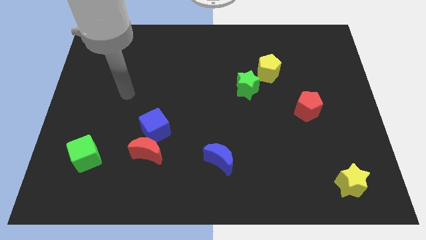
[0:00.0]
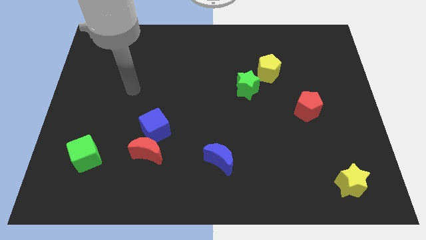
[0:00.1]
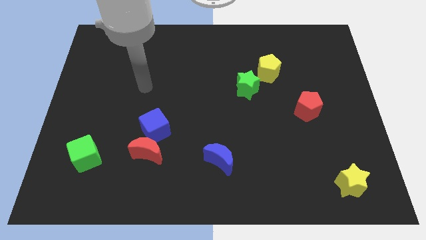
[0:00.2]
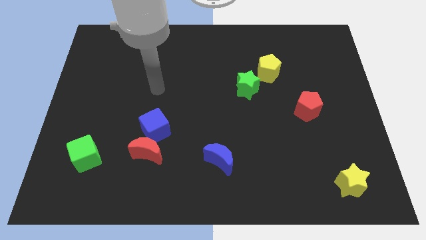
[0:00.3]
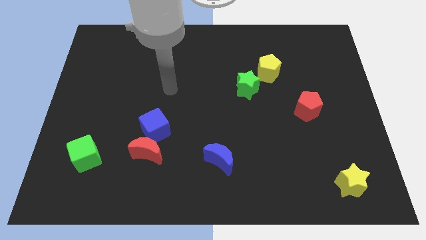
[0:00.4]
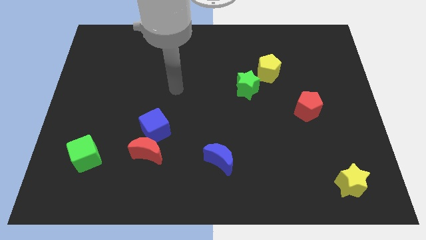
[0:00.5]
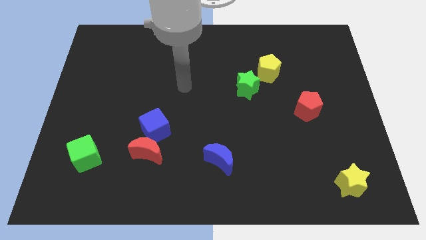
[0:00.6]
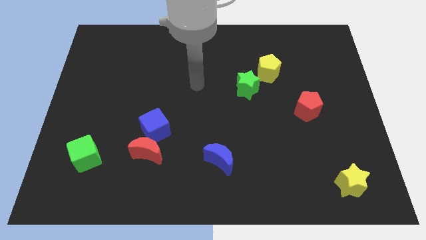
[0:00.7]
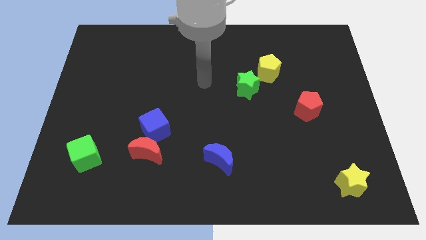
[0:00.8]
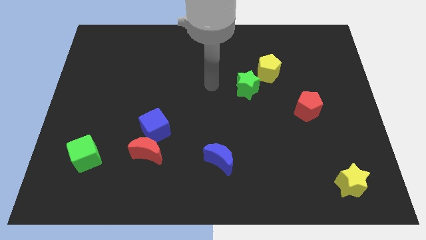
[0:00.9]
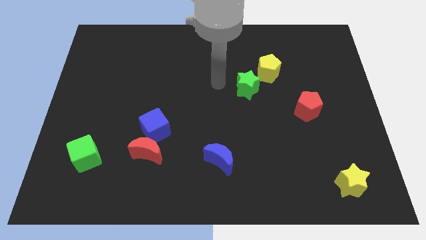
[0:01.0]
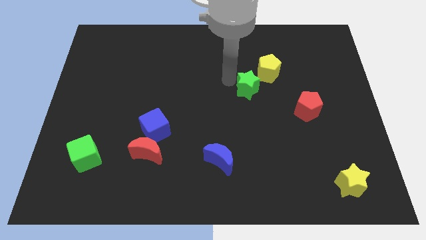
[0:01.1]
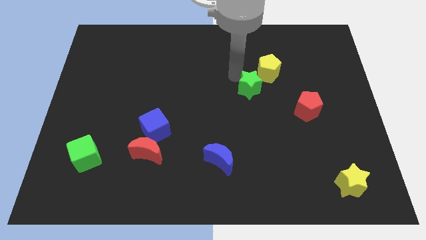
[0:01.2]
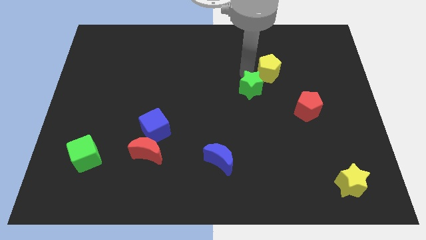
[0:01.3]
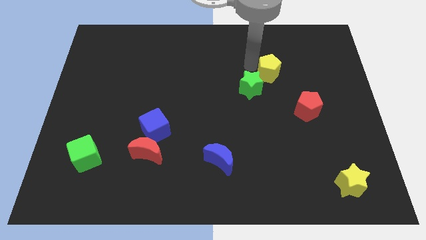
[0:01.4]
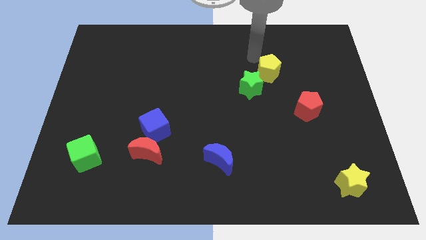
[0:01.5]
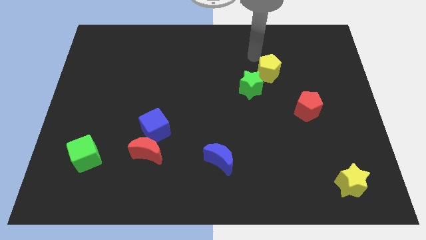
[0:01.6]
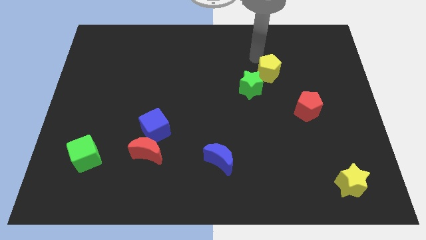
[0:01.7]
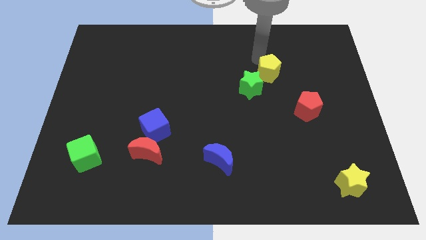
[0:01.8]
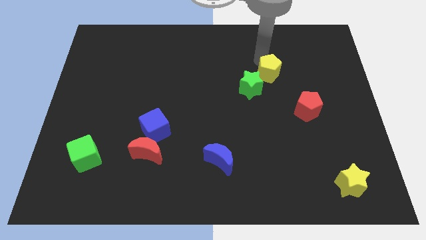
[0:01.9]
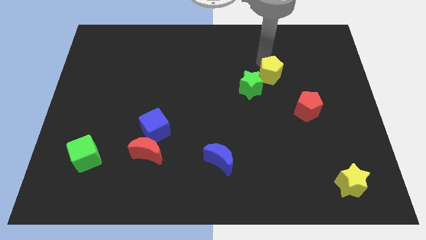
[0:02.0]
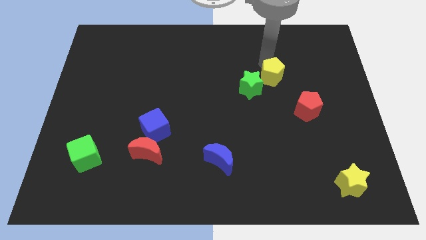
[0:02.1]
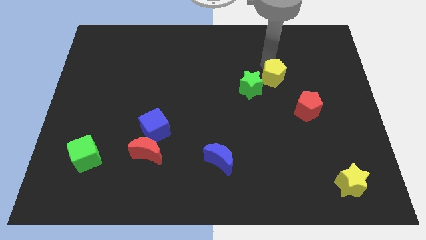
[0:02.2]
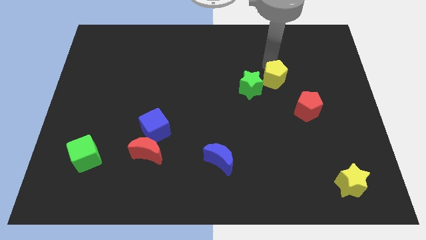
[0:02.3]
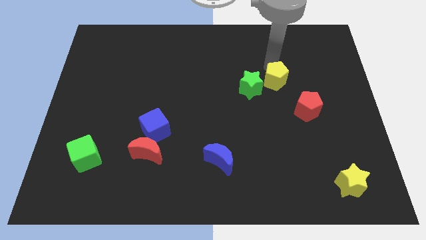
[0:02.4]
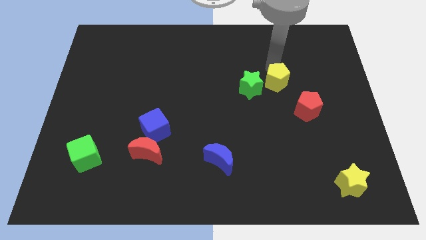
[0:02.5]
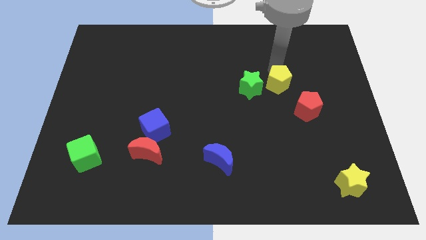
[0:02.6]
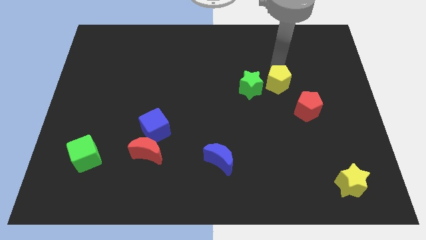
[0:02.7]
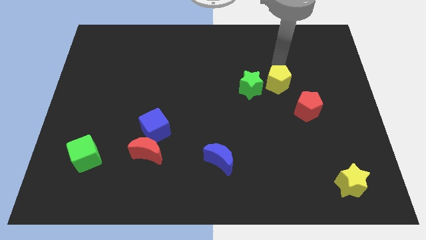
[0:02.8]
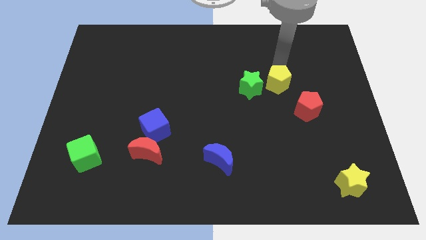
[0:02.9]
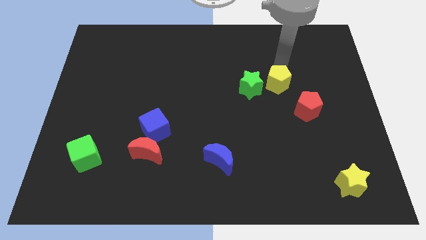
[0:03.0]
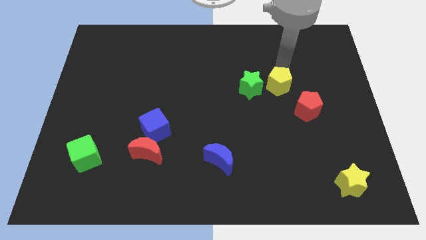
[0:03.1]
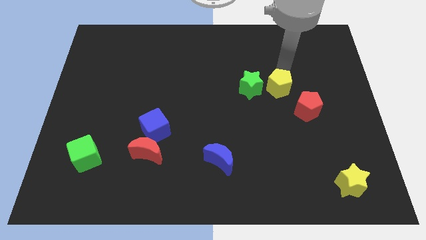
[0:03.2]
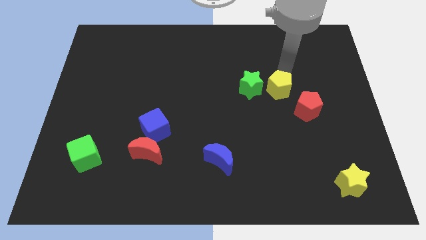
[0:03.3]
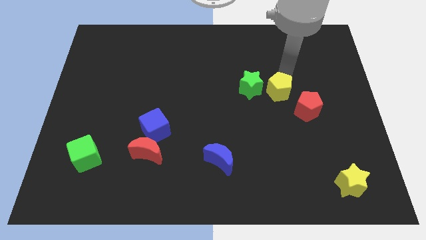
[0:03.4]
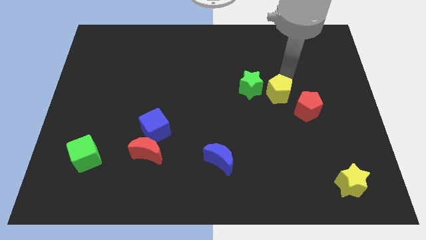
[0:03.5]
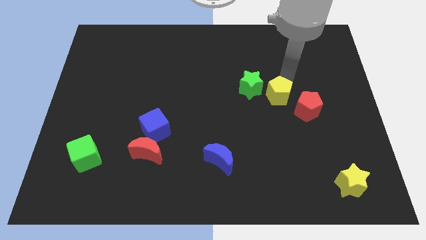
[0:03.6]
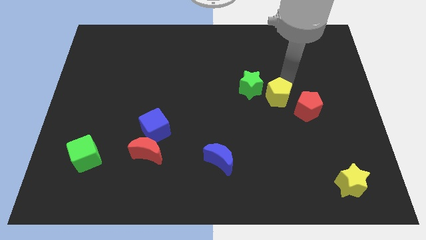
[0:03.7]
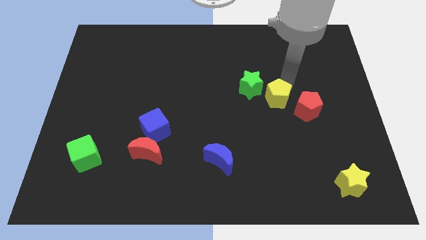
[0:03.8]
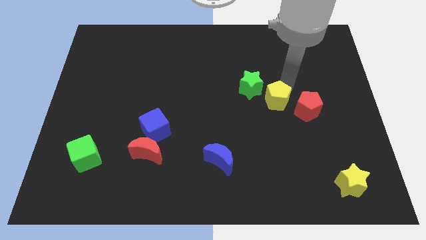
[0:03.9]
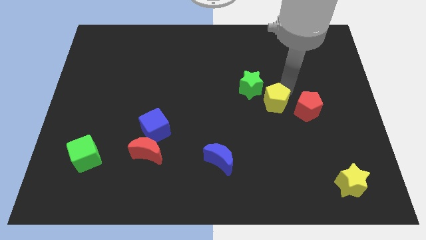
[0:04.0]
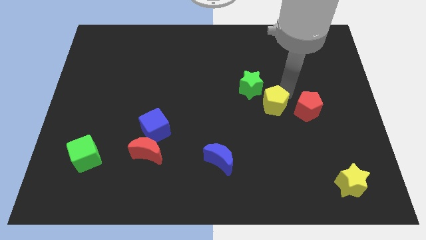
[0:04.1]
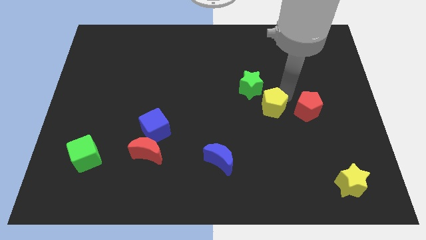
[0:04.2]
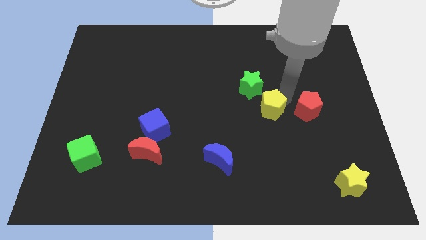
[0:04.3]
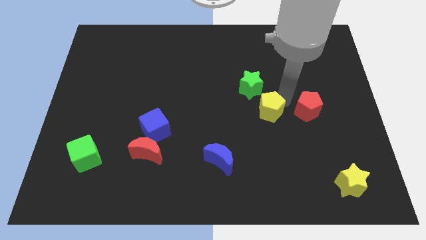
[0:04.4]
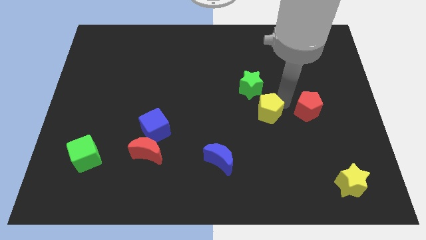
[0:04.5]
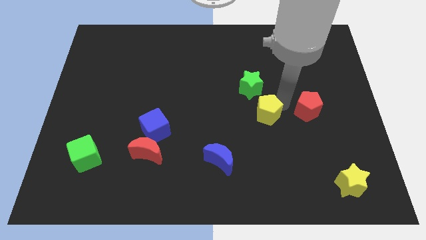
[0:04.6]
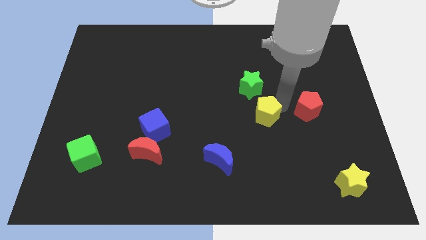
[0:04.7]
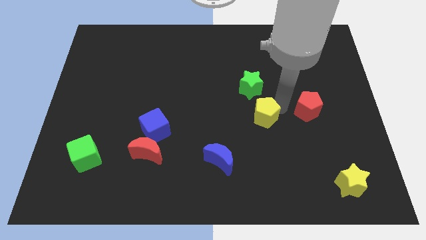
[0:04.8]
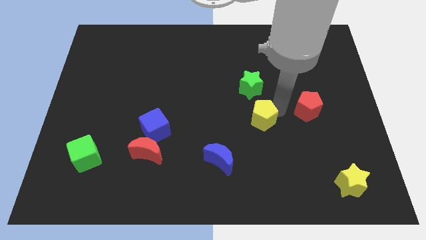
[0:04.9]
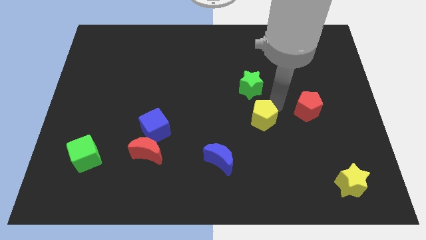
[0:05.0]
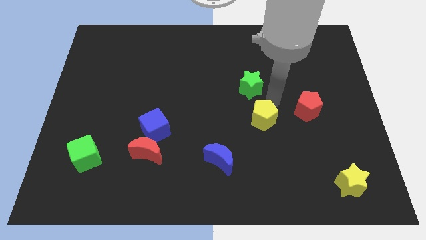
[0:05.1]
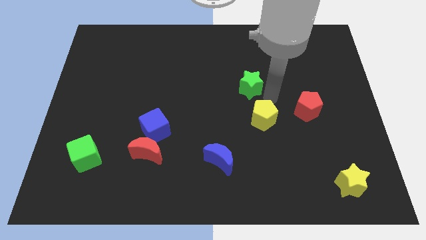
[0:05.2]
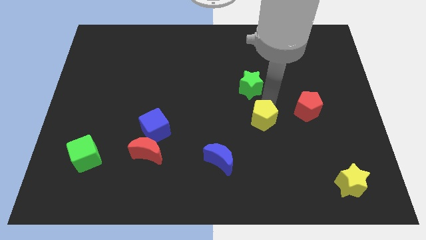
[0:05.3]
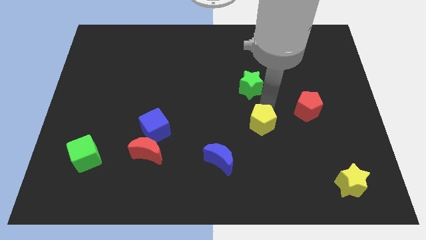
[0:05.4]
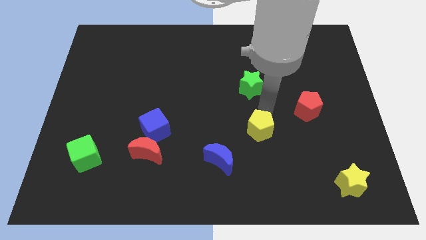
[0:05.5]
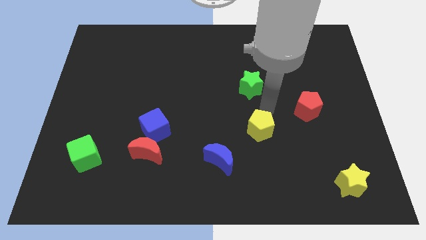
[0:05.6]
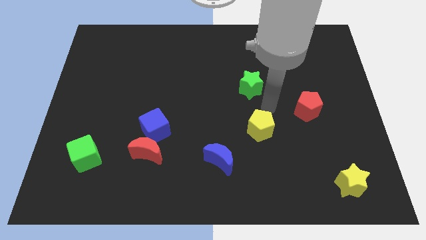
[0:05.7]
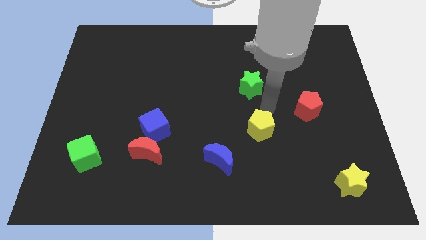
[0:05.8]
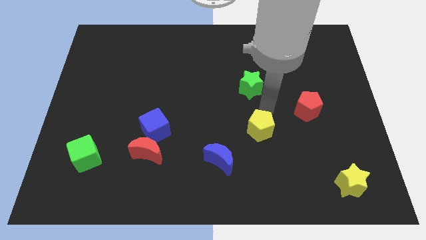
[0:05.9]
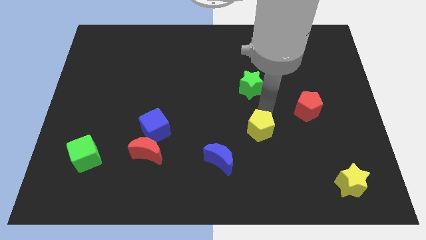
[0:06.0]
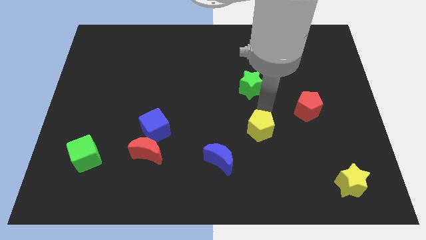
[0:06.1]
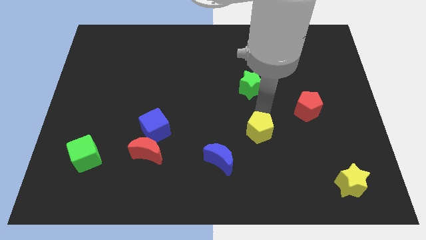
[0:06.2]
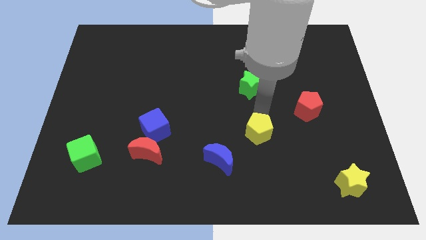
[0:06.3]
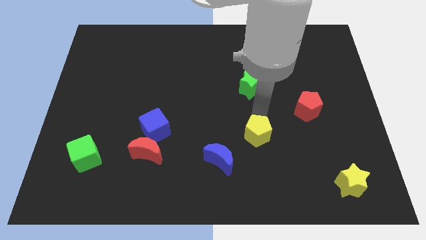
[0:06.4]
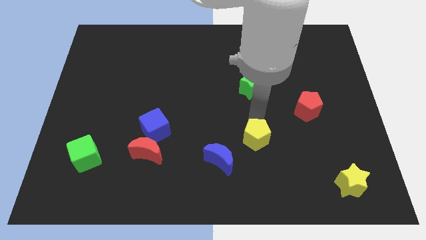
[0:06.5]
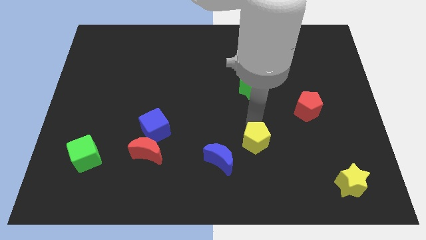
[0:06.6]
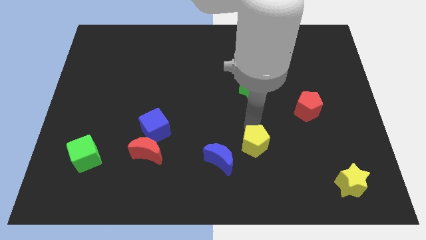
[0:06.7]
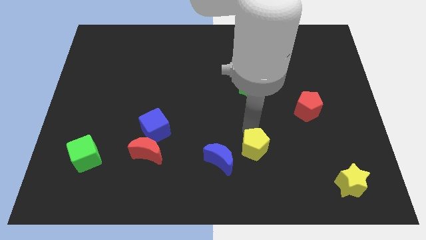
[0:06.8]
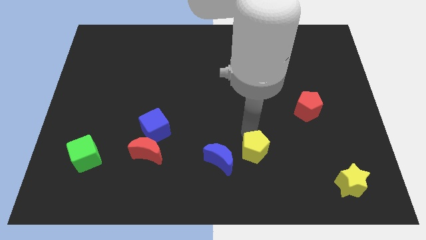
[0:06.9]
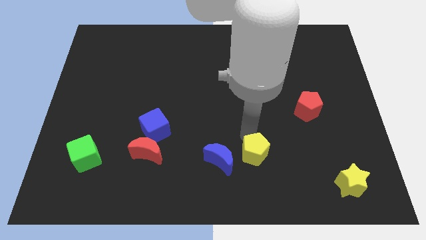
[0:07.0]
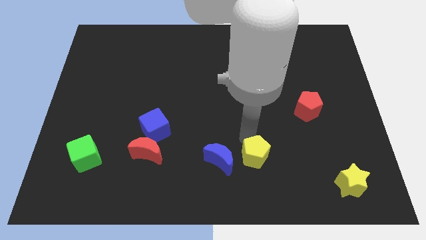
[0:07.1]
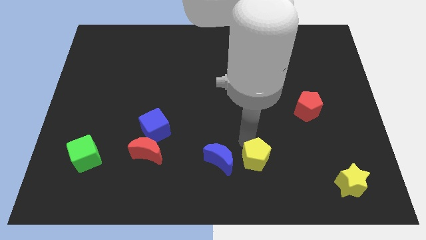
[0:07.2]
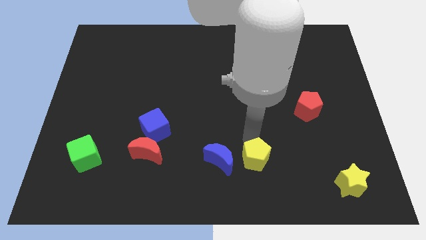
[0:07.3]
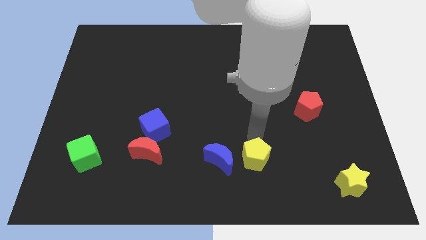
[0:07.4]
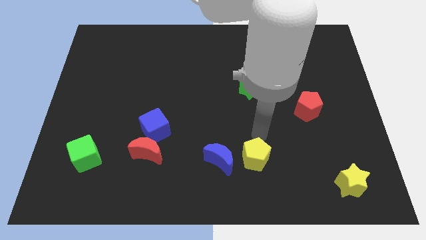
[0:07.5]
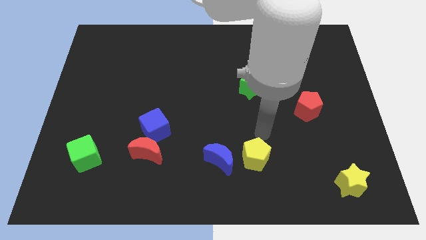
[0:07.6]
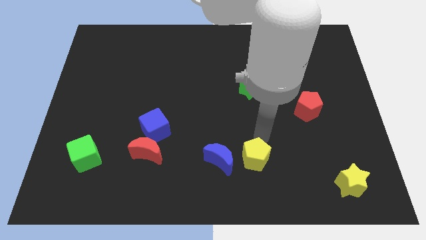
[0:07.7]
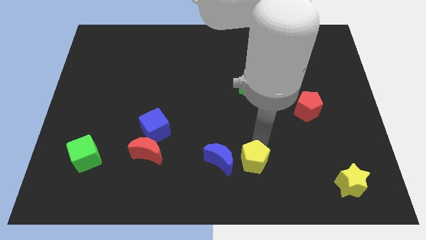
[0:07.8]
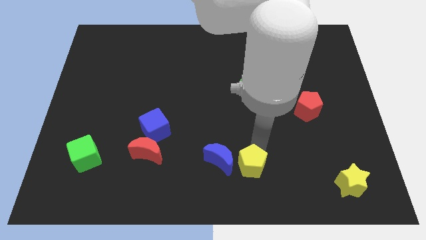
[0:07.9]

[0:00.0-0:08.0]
put the yellow pentagon to the bottom
